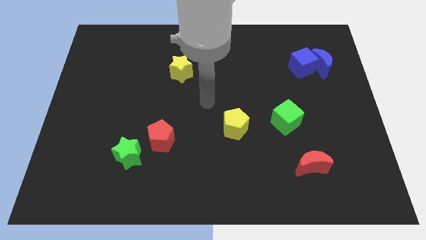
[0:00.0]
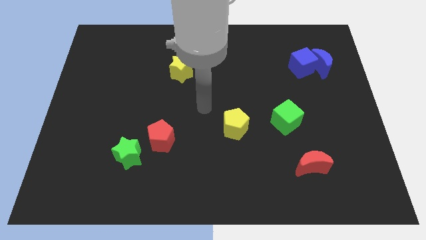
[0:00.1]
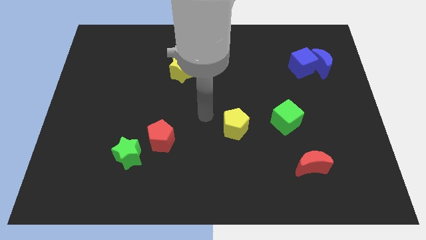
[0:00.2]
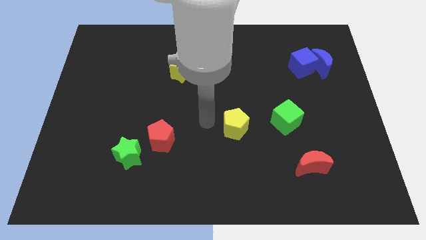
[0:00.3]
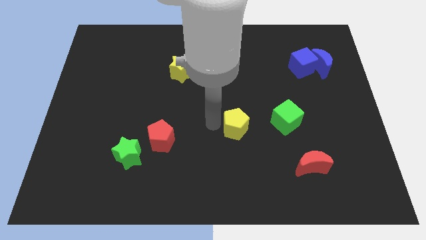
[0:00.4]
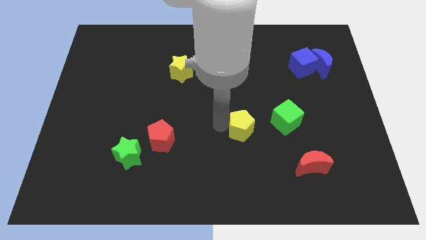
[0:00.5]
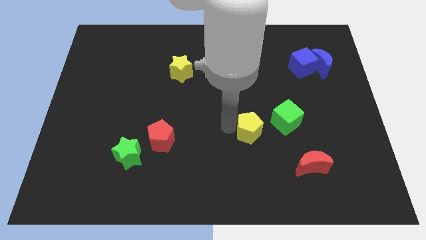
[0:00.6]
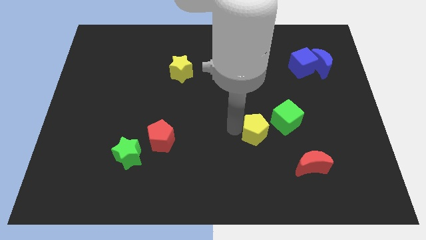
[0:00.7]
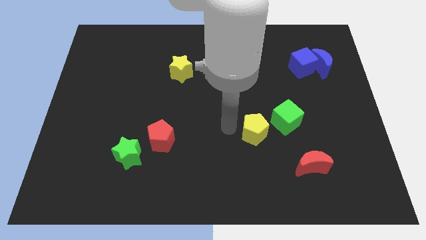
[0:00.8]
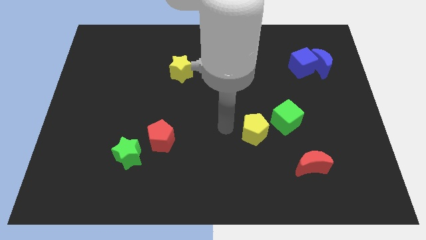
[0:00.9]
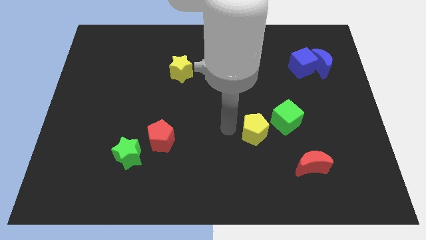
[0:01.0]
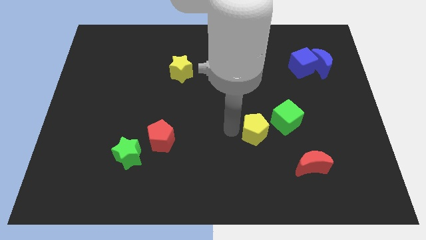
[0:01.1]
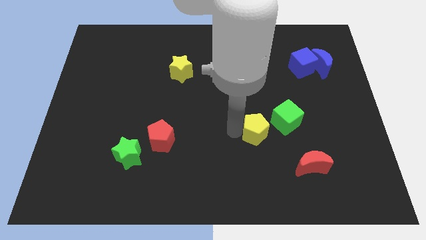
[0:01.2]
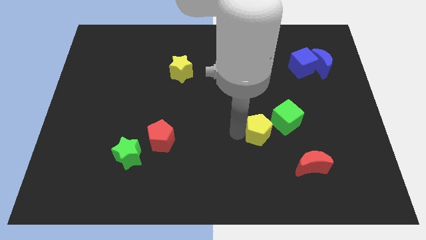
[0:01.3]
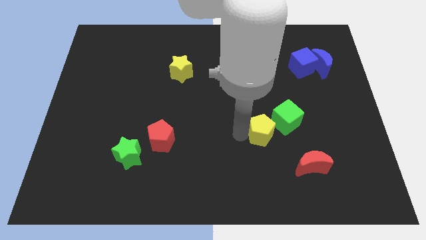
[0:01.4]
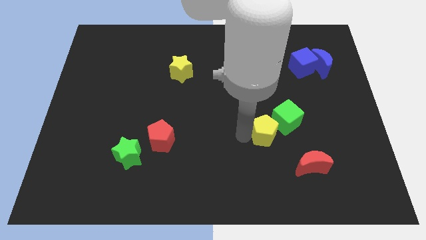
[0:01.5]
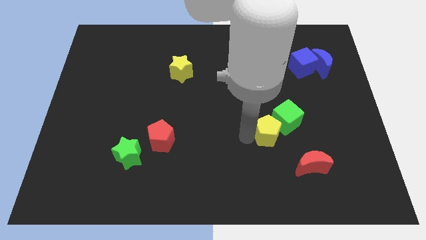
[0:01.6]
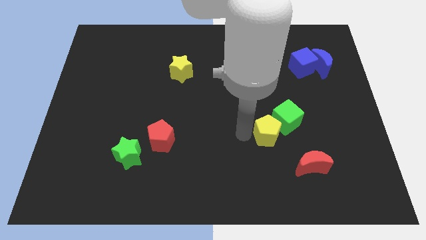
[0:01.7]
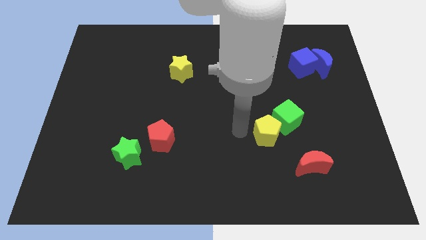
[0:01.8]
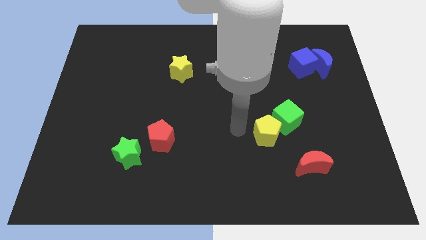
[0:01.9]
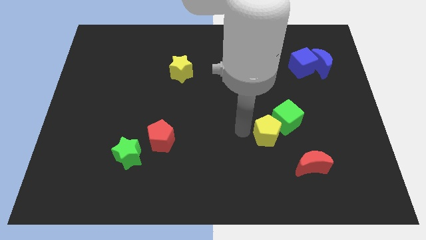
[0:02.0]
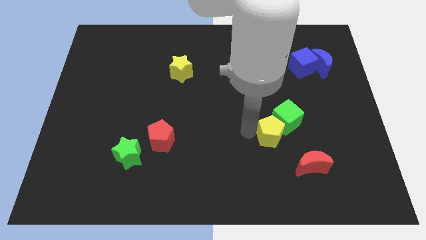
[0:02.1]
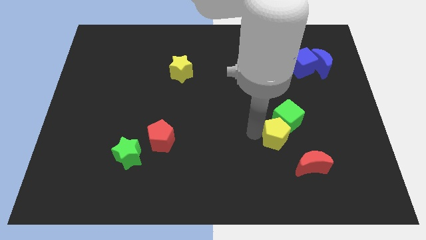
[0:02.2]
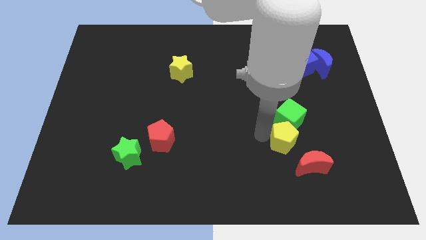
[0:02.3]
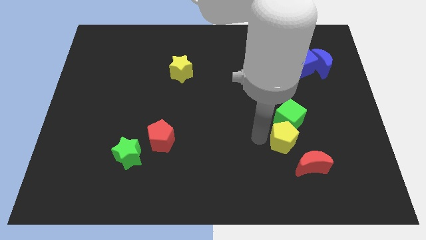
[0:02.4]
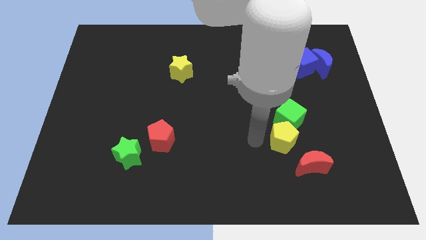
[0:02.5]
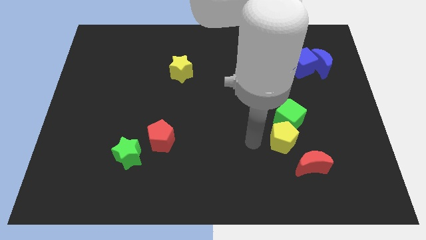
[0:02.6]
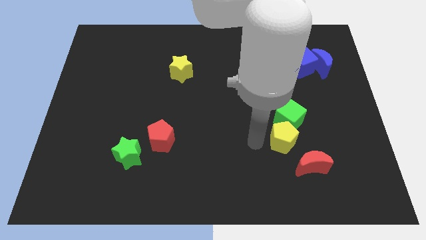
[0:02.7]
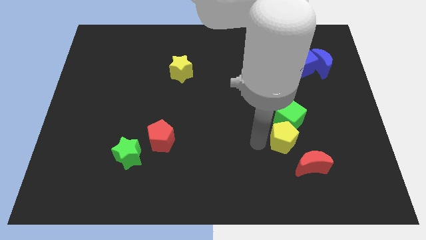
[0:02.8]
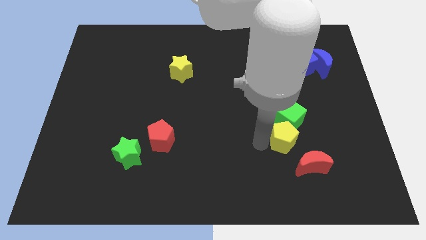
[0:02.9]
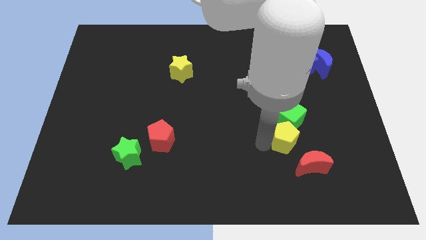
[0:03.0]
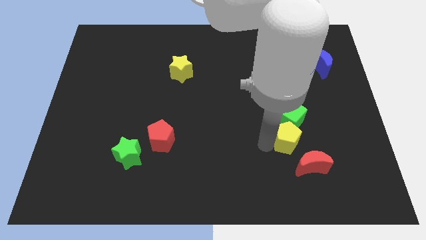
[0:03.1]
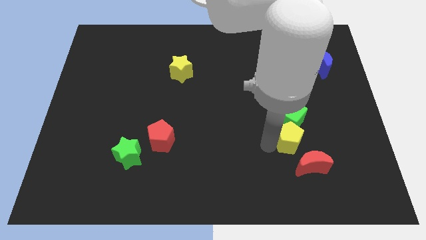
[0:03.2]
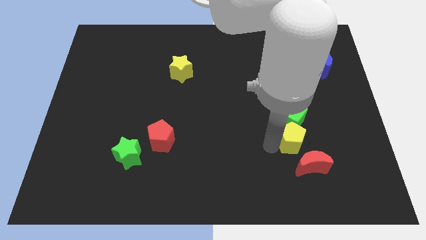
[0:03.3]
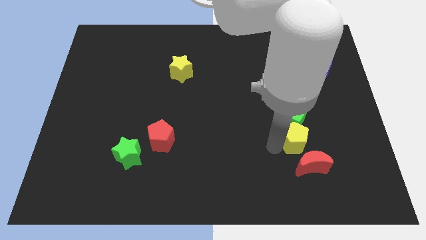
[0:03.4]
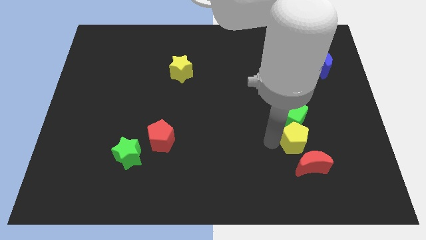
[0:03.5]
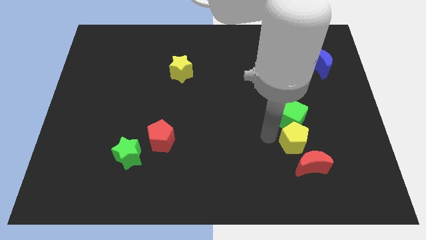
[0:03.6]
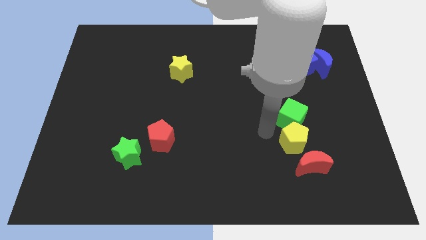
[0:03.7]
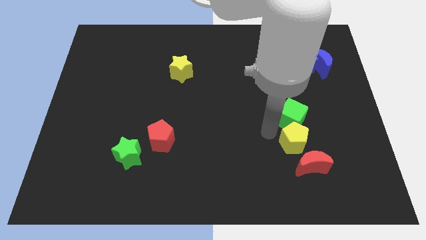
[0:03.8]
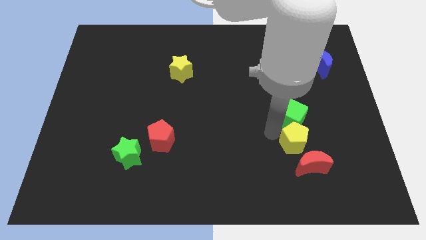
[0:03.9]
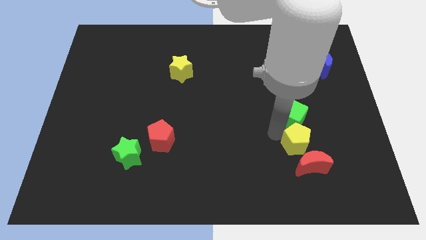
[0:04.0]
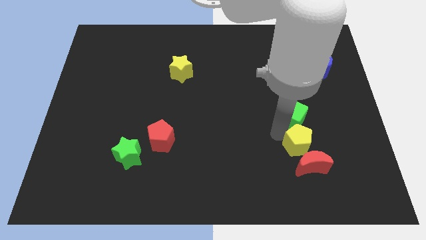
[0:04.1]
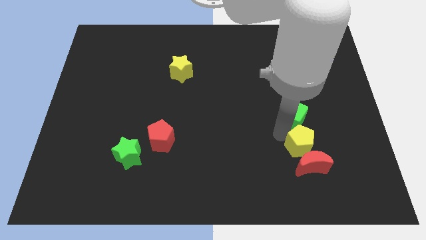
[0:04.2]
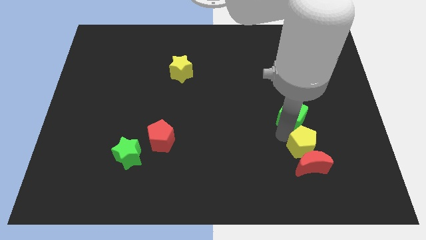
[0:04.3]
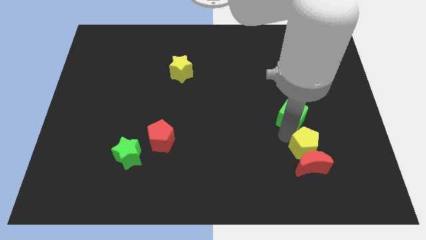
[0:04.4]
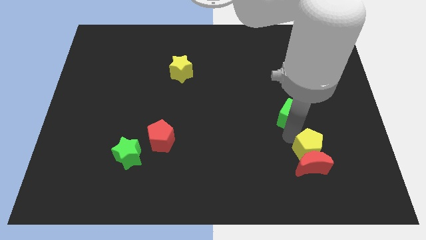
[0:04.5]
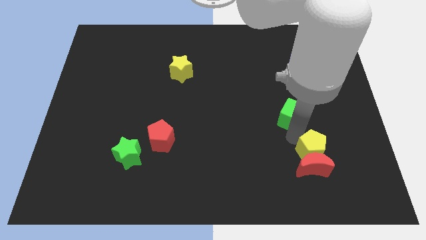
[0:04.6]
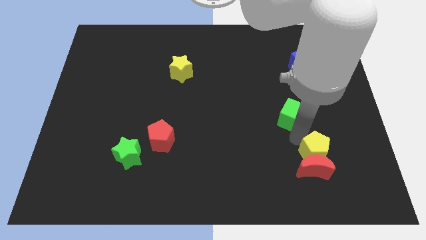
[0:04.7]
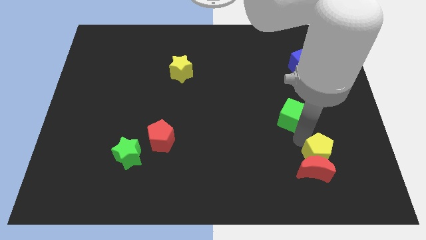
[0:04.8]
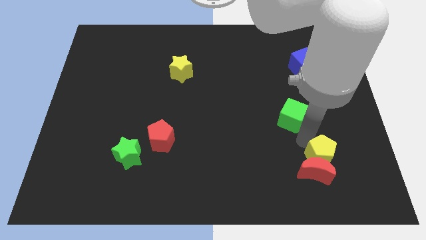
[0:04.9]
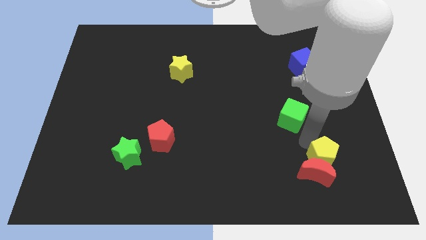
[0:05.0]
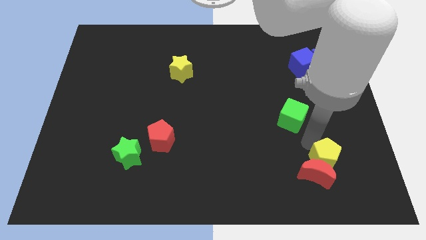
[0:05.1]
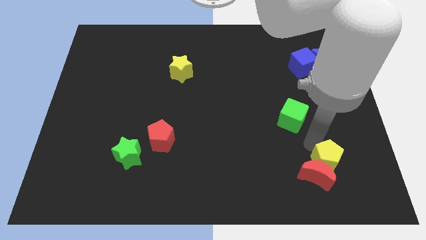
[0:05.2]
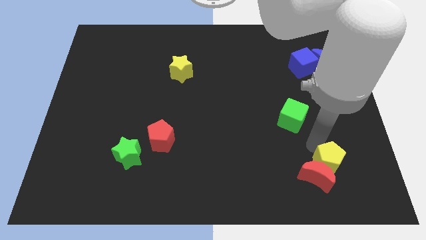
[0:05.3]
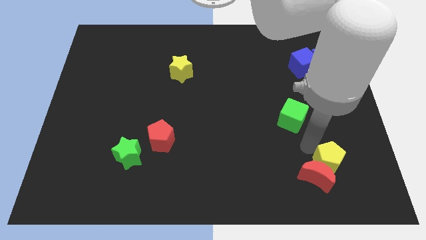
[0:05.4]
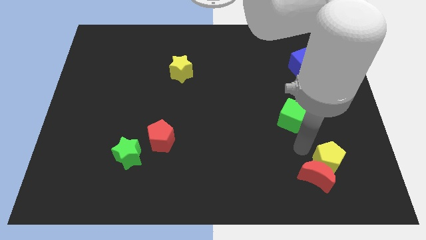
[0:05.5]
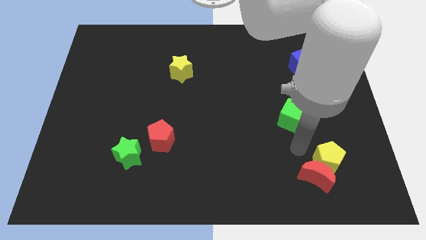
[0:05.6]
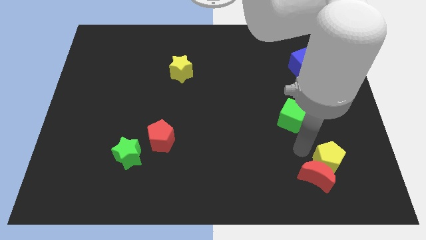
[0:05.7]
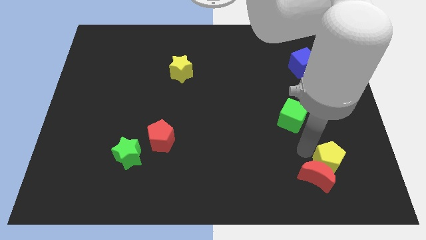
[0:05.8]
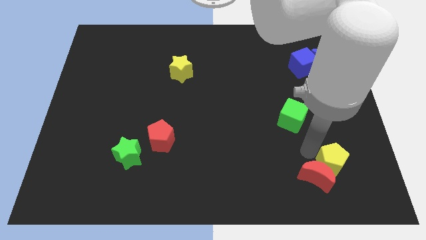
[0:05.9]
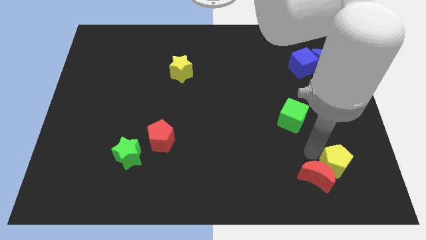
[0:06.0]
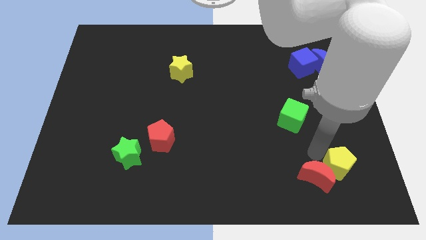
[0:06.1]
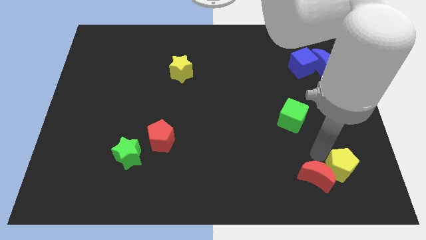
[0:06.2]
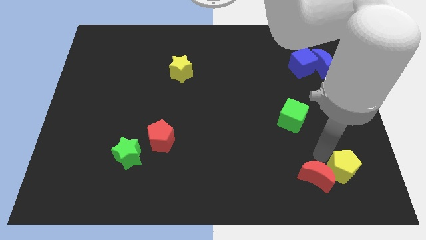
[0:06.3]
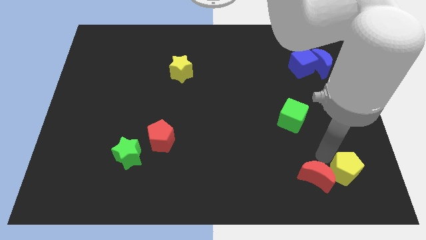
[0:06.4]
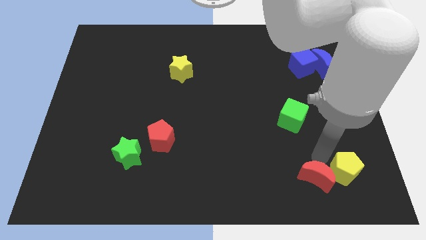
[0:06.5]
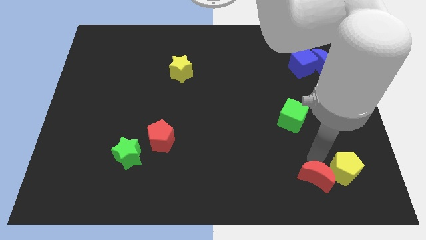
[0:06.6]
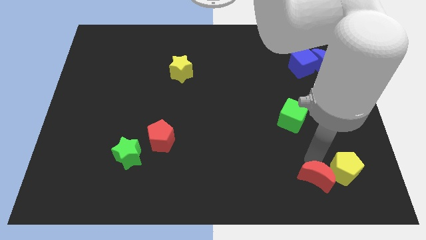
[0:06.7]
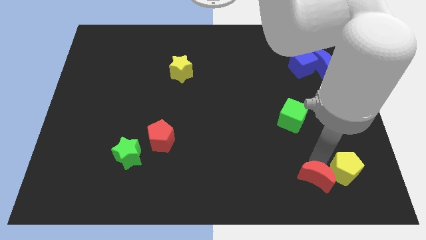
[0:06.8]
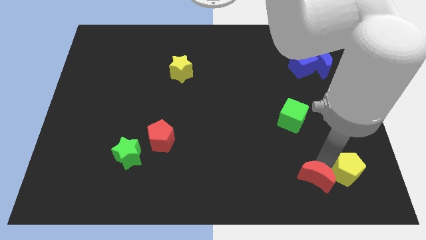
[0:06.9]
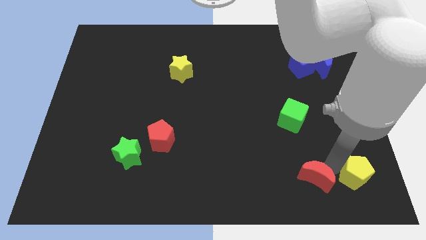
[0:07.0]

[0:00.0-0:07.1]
push the yellow pentagon to the bottom right of the board
